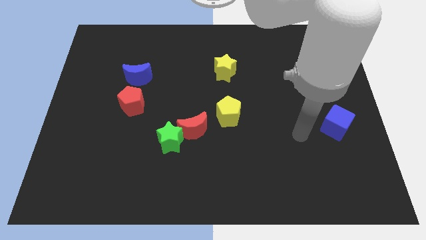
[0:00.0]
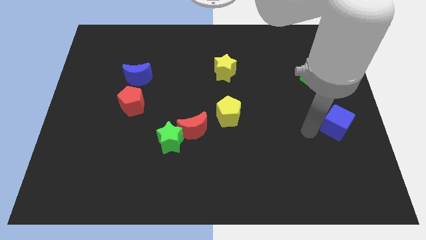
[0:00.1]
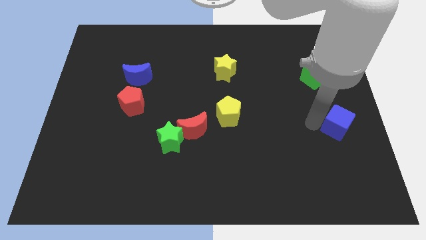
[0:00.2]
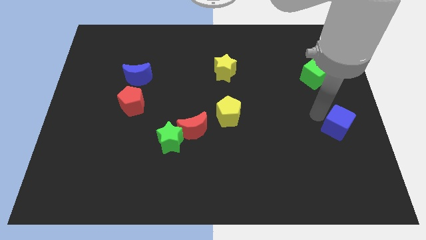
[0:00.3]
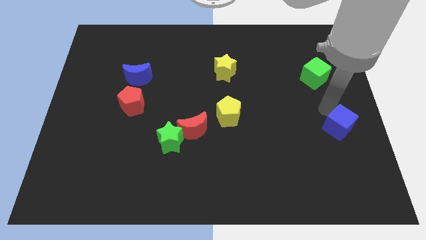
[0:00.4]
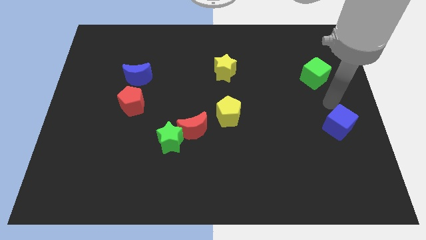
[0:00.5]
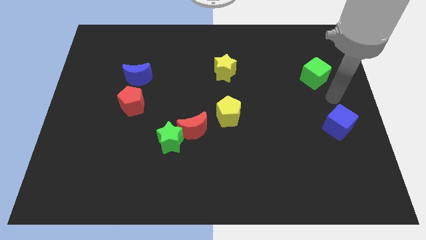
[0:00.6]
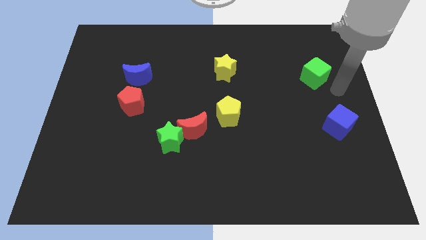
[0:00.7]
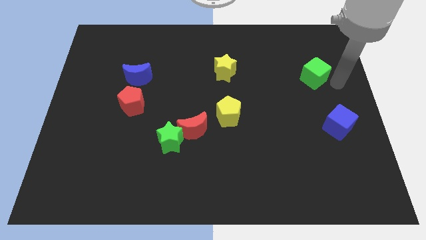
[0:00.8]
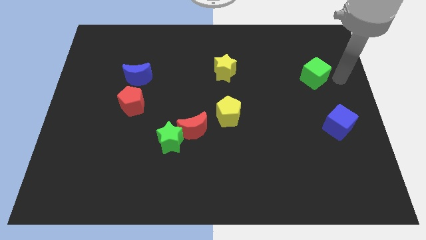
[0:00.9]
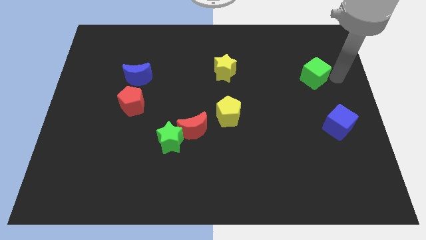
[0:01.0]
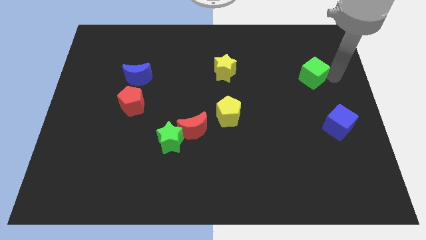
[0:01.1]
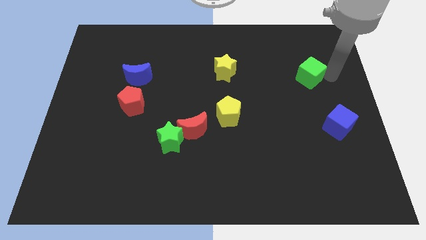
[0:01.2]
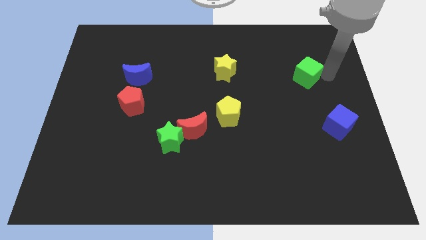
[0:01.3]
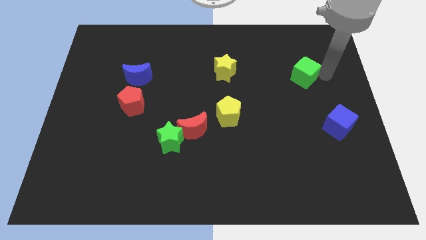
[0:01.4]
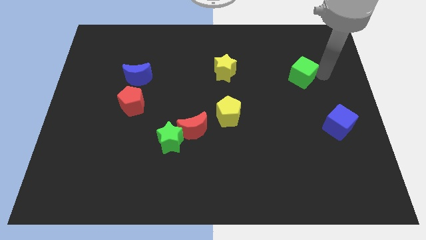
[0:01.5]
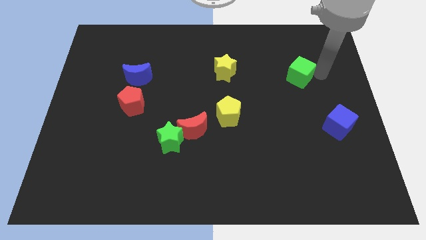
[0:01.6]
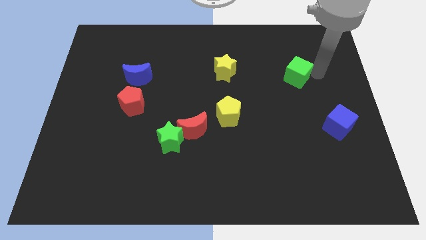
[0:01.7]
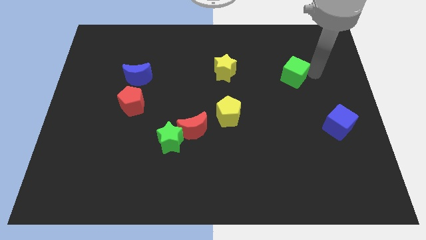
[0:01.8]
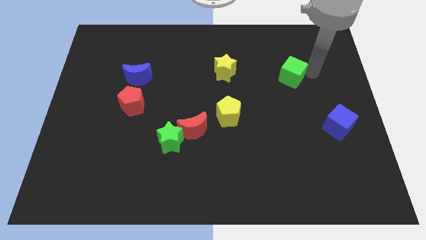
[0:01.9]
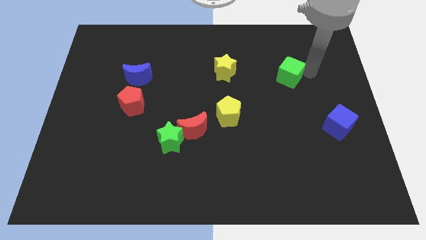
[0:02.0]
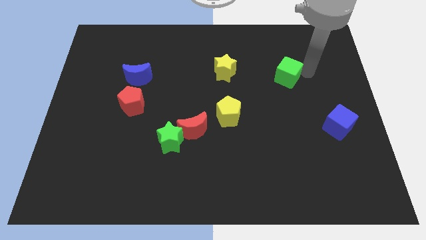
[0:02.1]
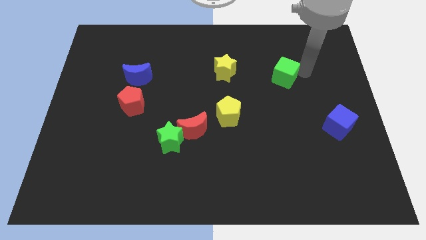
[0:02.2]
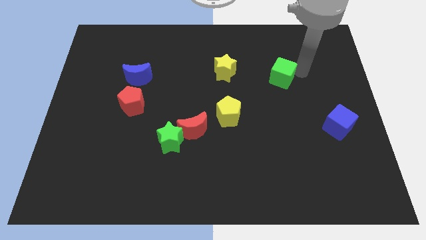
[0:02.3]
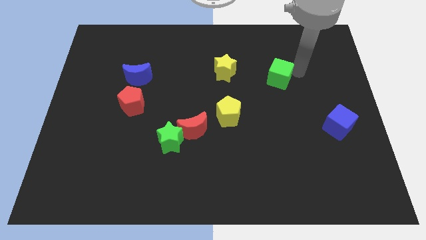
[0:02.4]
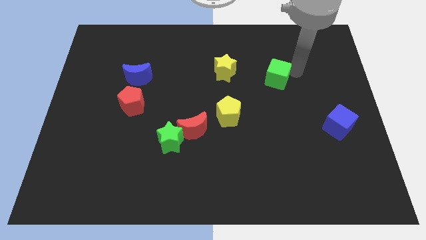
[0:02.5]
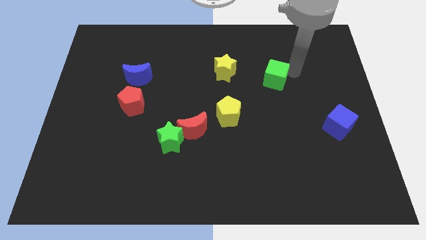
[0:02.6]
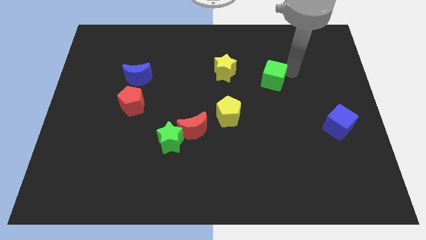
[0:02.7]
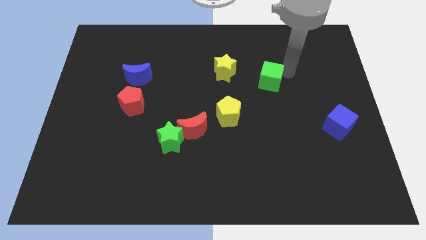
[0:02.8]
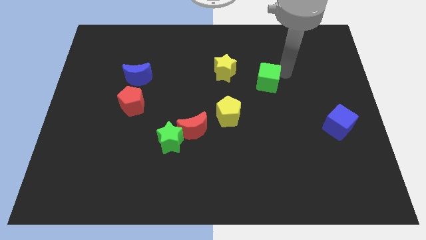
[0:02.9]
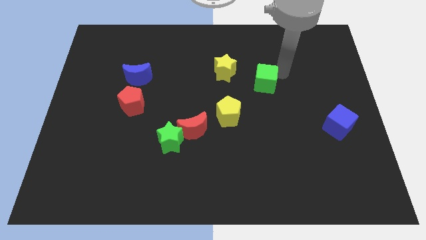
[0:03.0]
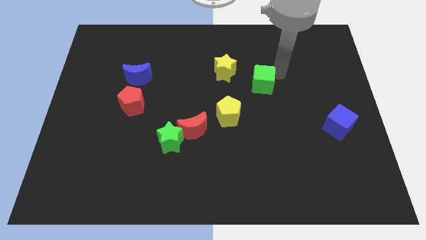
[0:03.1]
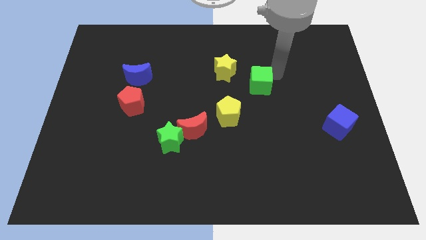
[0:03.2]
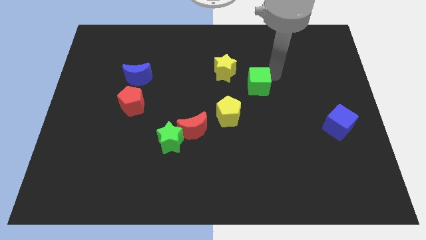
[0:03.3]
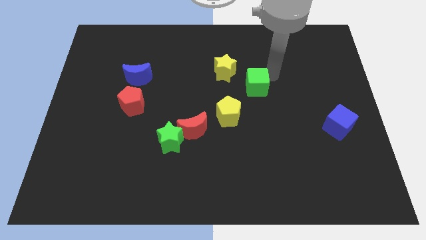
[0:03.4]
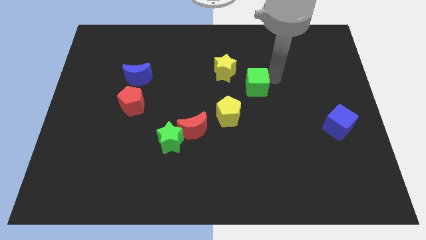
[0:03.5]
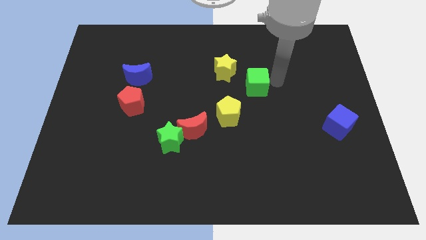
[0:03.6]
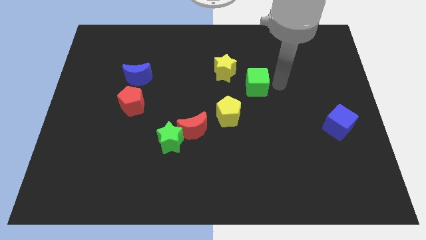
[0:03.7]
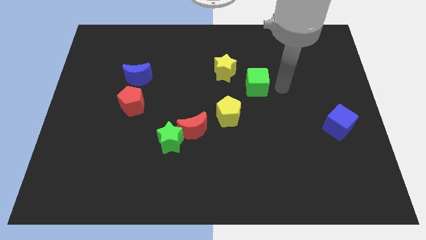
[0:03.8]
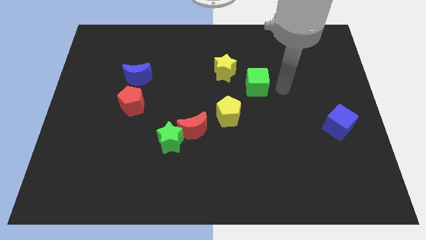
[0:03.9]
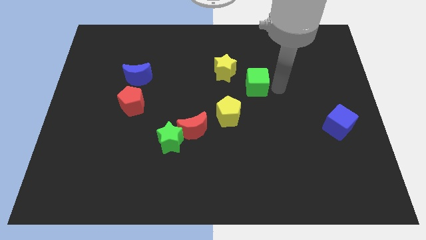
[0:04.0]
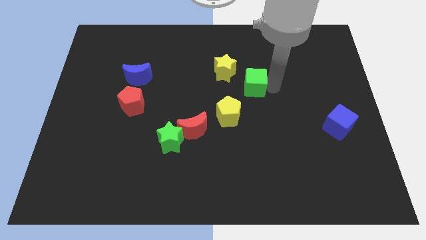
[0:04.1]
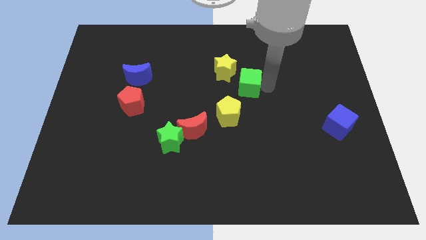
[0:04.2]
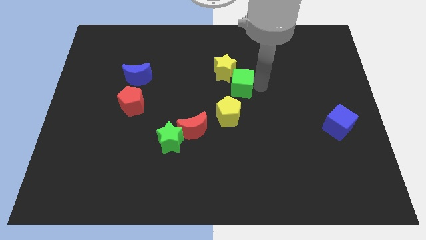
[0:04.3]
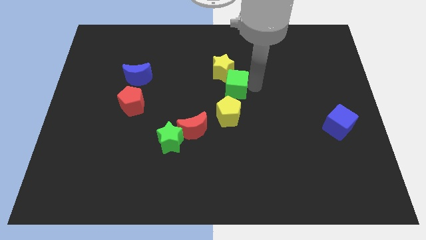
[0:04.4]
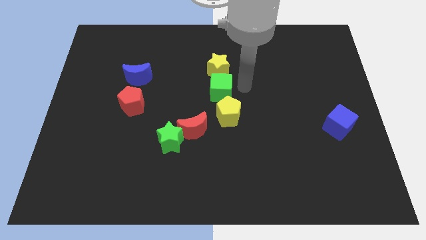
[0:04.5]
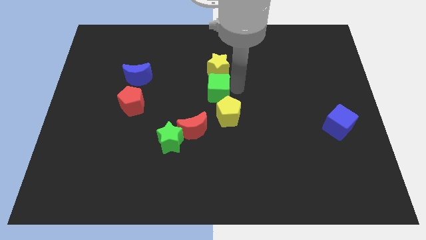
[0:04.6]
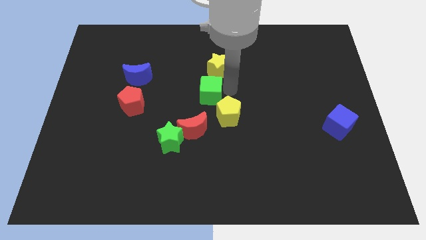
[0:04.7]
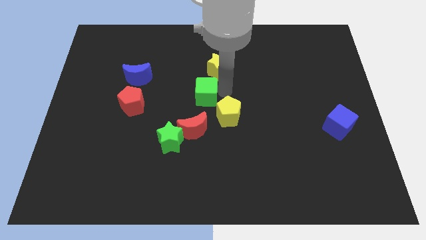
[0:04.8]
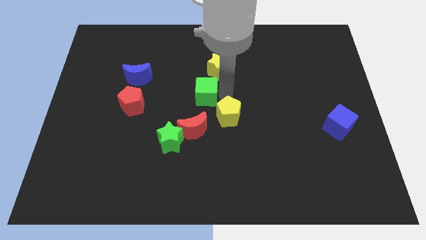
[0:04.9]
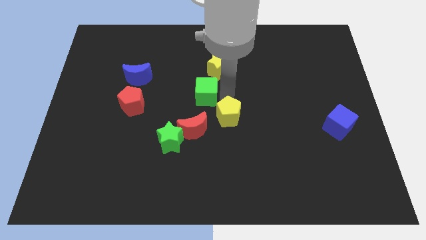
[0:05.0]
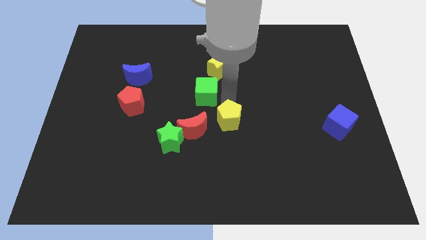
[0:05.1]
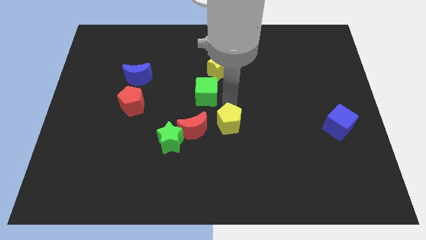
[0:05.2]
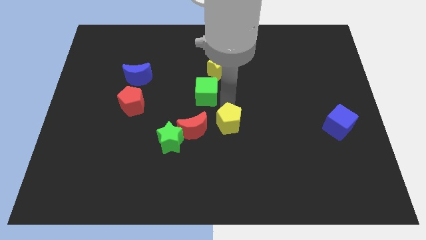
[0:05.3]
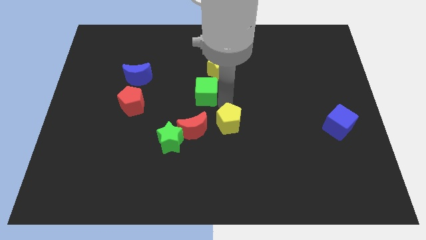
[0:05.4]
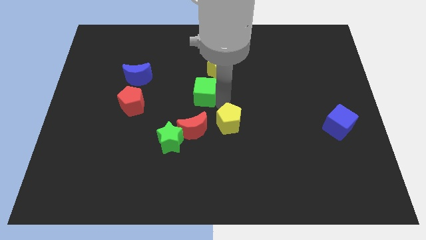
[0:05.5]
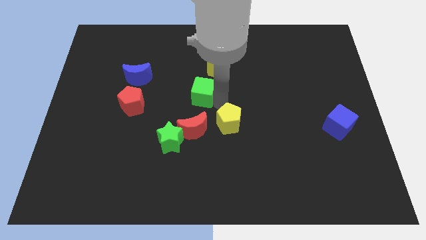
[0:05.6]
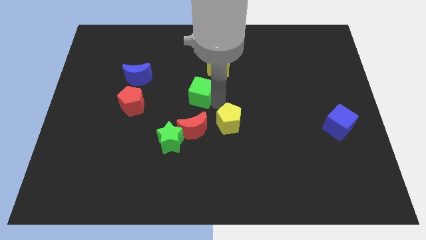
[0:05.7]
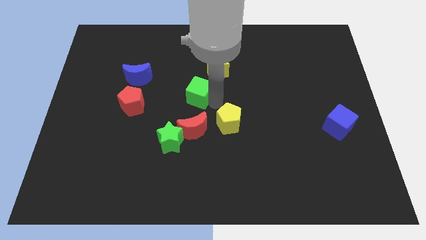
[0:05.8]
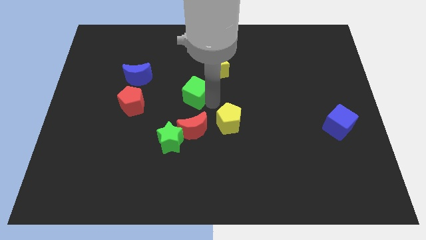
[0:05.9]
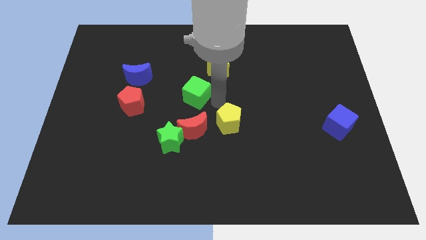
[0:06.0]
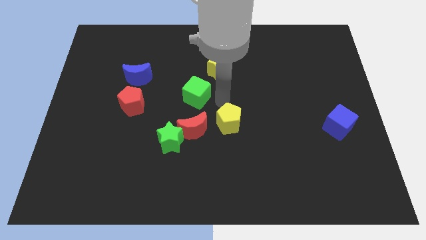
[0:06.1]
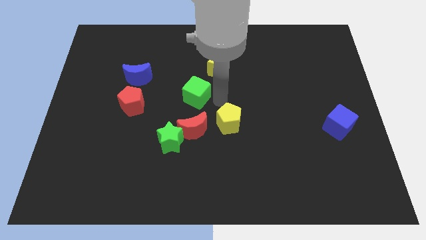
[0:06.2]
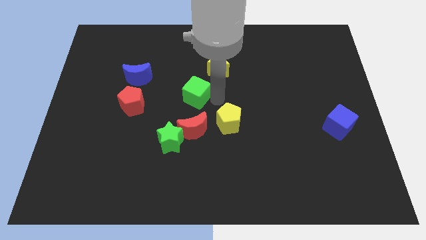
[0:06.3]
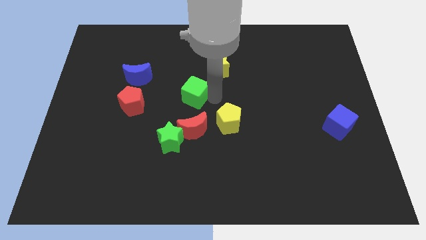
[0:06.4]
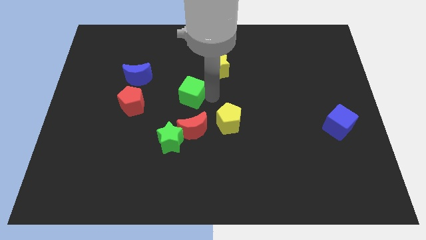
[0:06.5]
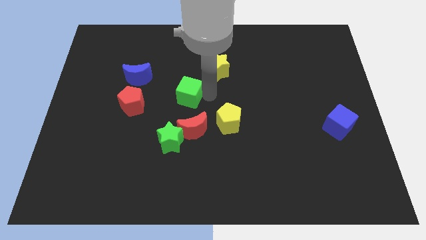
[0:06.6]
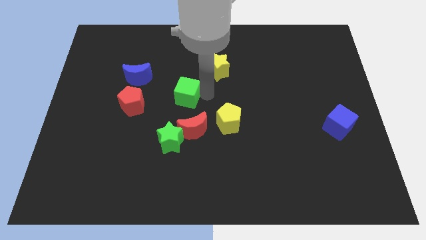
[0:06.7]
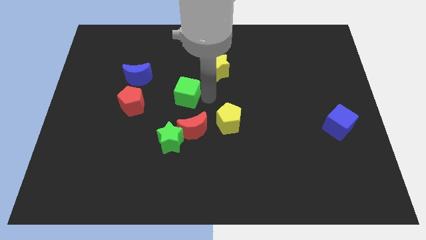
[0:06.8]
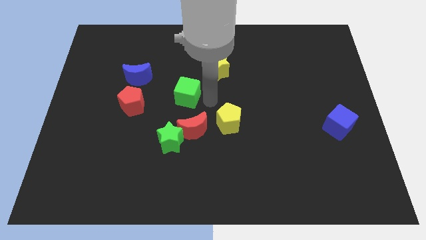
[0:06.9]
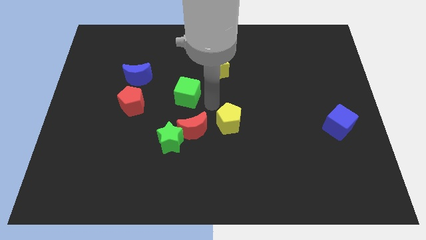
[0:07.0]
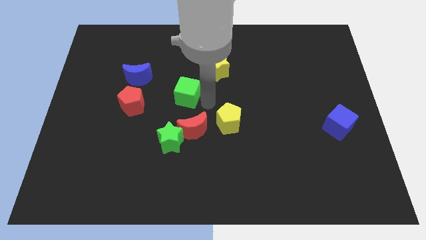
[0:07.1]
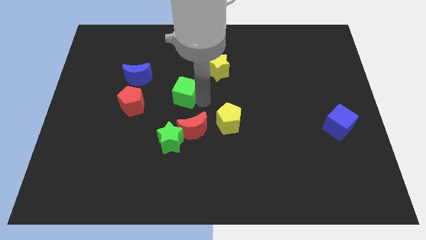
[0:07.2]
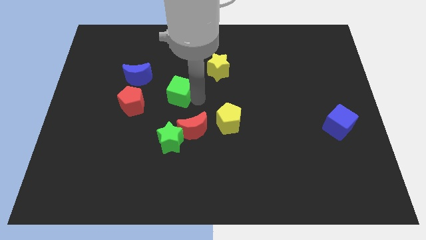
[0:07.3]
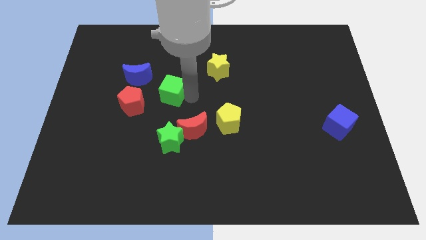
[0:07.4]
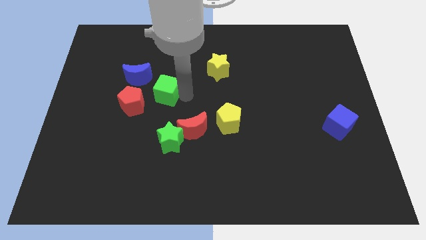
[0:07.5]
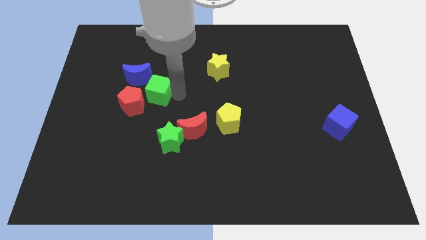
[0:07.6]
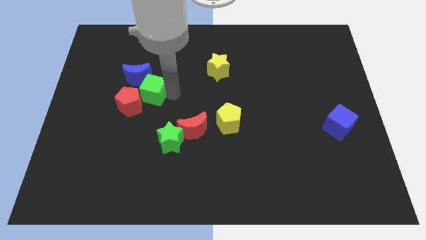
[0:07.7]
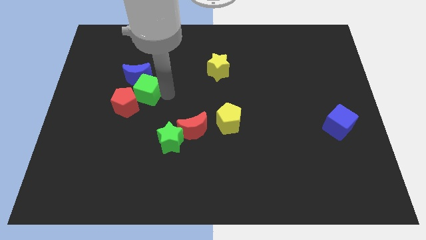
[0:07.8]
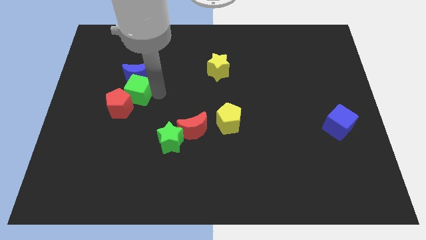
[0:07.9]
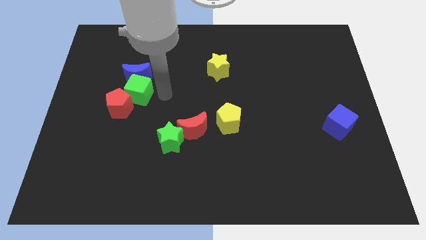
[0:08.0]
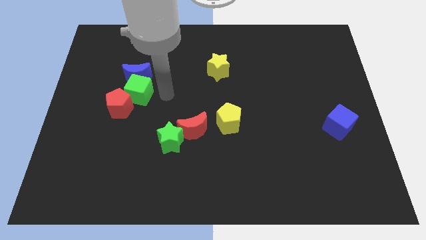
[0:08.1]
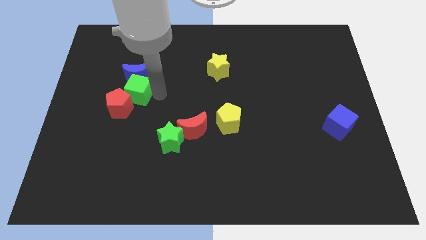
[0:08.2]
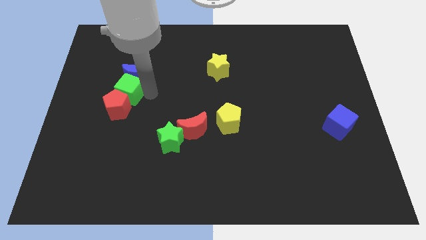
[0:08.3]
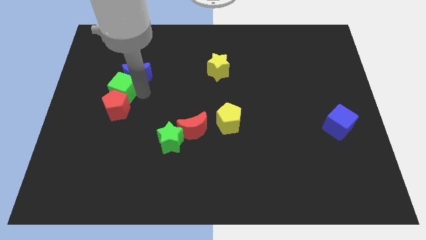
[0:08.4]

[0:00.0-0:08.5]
put the green cube diagonally up and to the left of the red pentagon
